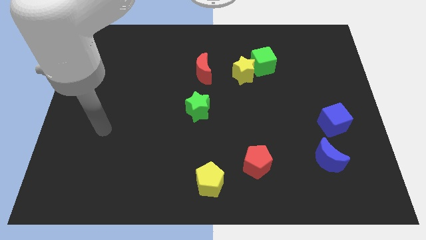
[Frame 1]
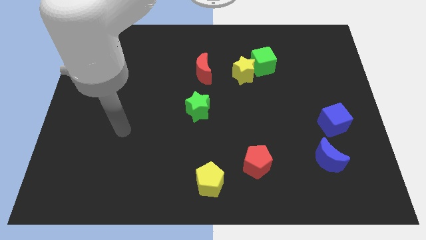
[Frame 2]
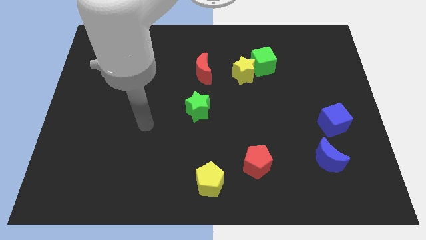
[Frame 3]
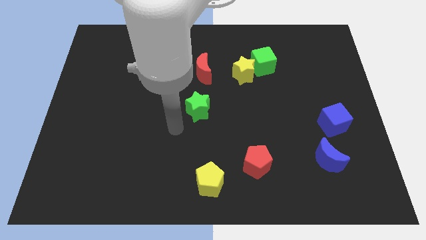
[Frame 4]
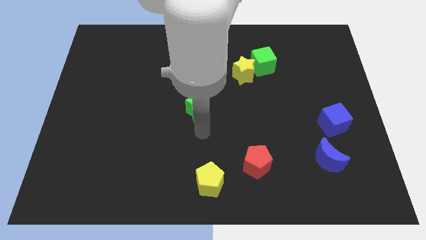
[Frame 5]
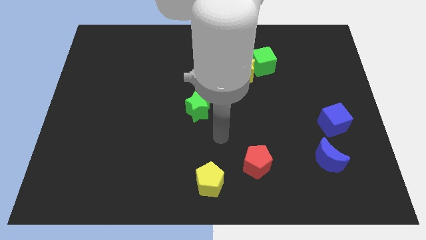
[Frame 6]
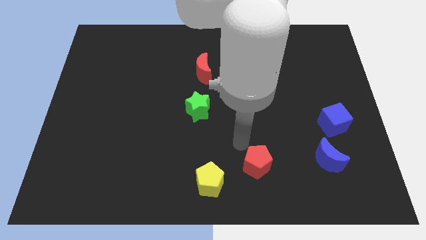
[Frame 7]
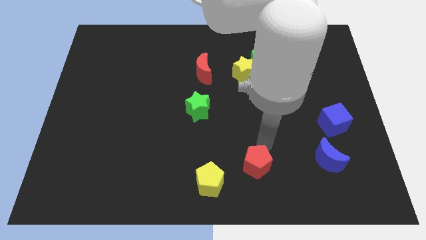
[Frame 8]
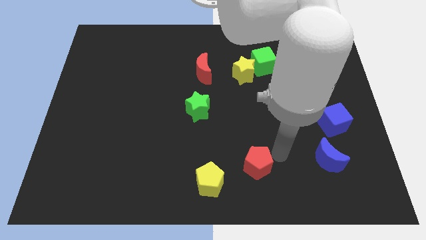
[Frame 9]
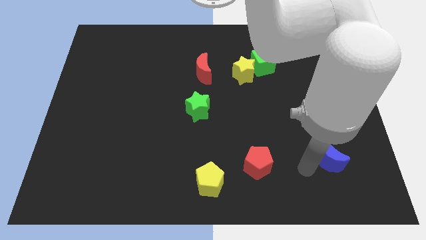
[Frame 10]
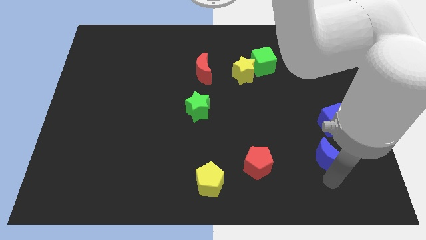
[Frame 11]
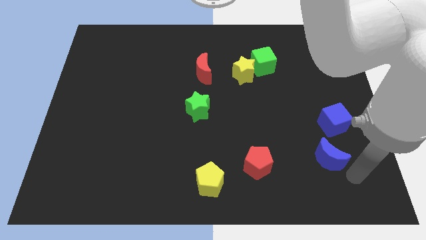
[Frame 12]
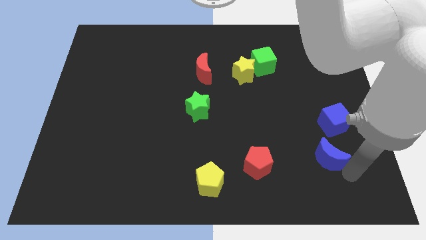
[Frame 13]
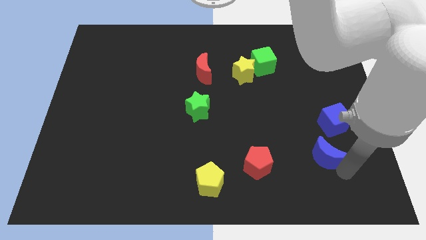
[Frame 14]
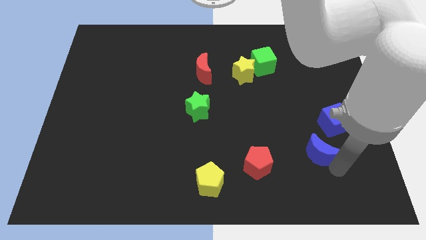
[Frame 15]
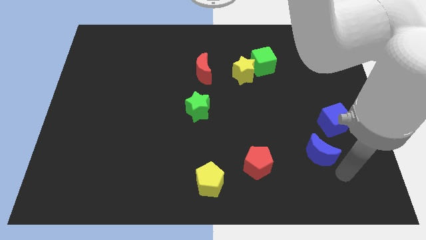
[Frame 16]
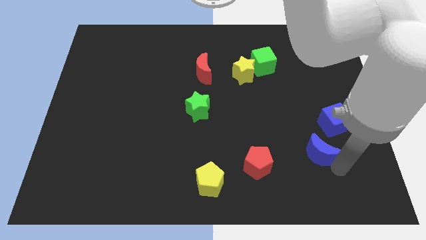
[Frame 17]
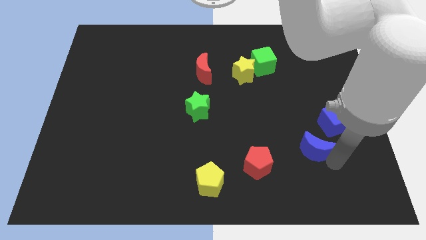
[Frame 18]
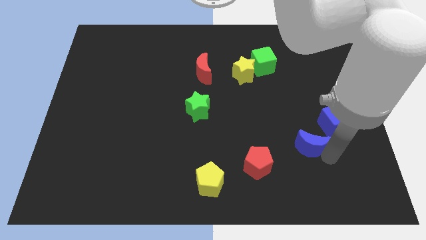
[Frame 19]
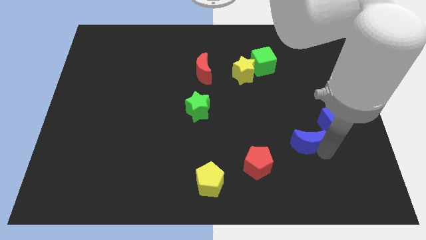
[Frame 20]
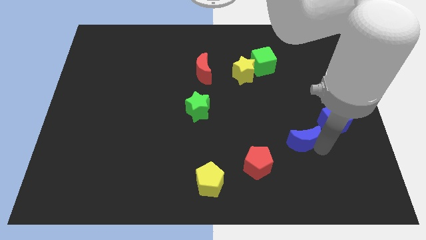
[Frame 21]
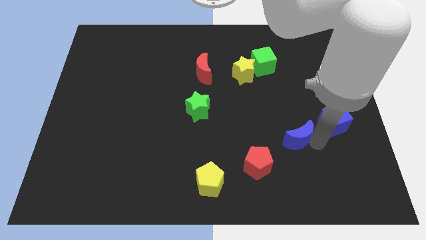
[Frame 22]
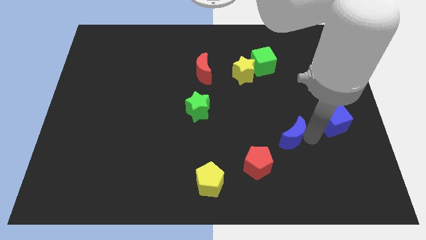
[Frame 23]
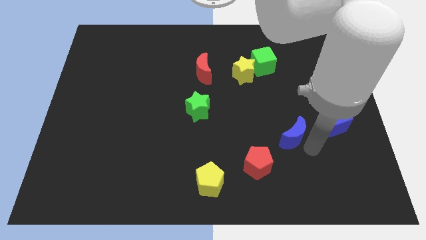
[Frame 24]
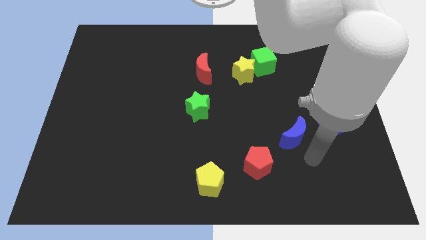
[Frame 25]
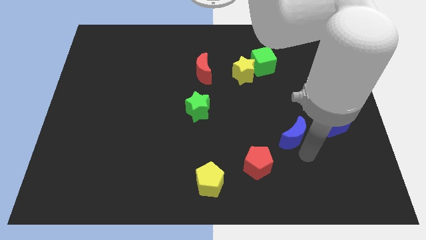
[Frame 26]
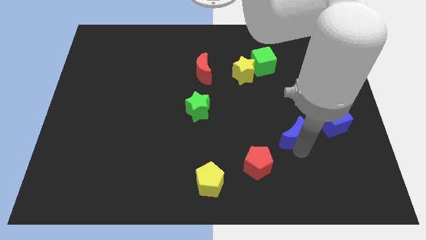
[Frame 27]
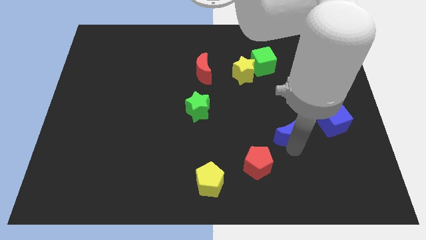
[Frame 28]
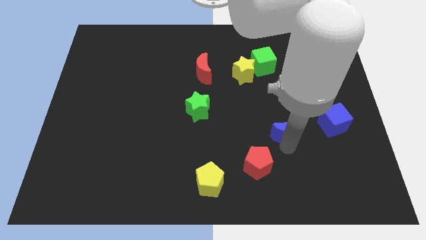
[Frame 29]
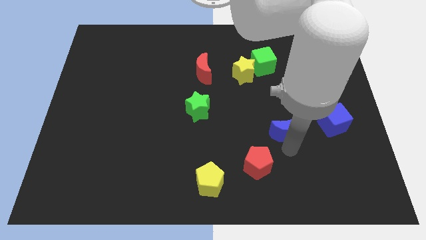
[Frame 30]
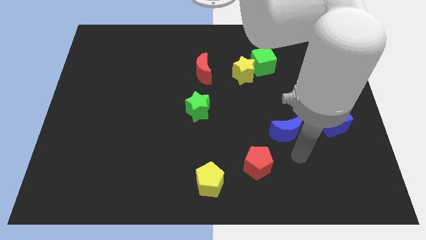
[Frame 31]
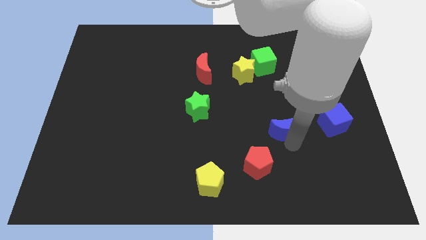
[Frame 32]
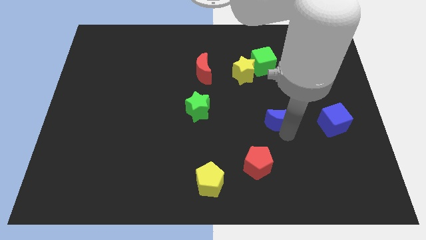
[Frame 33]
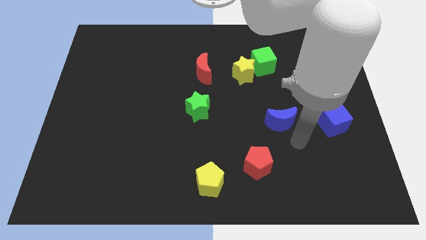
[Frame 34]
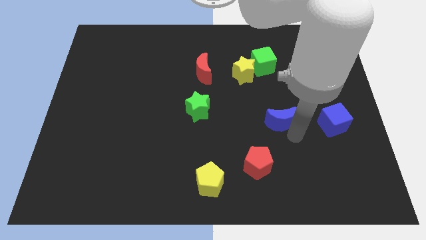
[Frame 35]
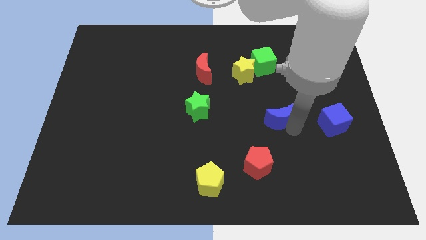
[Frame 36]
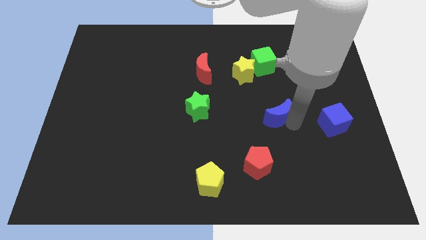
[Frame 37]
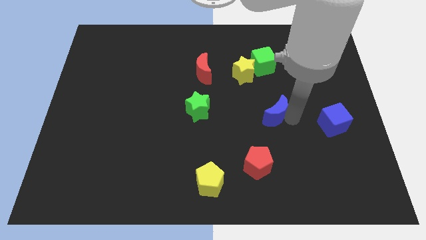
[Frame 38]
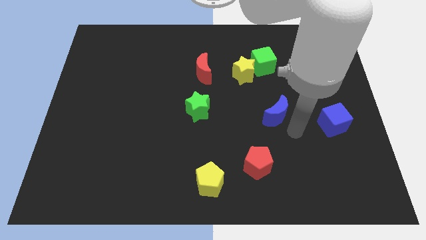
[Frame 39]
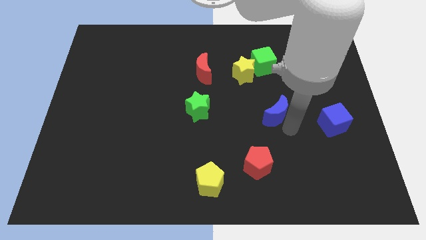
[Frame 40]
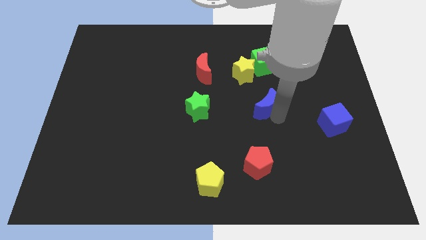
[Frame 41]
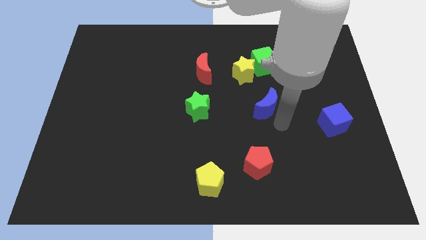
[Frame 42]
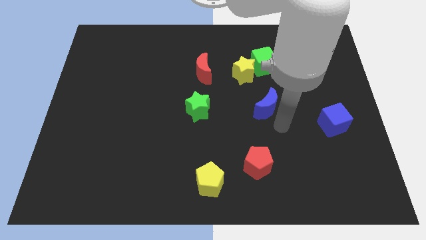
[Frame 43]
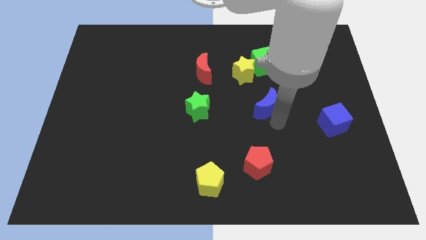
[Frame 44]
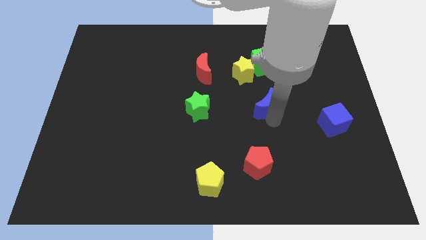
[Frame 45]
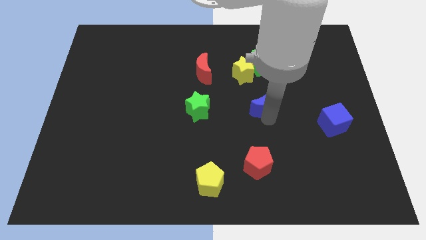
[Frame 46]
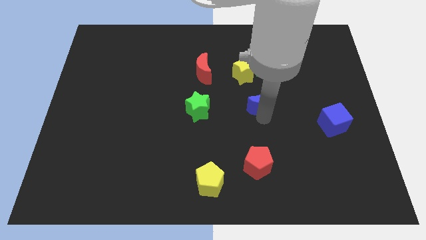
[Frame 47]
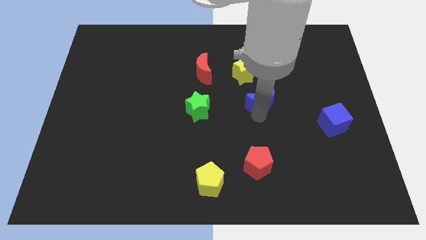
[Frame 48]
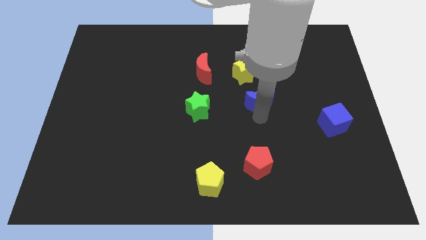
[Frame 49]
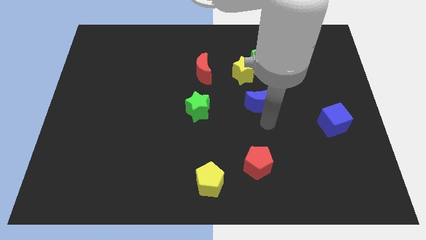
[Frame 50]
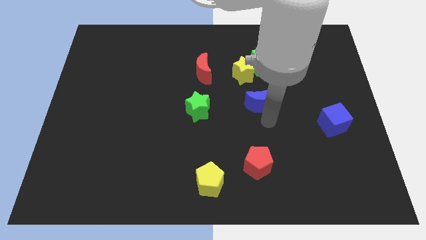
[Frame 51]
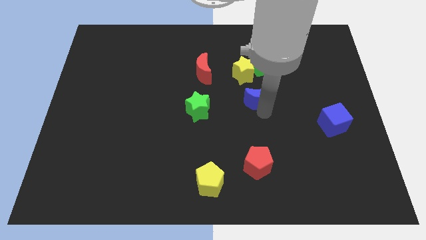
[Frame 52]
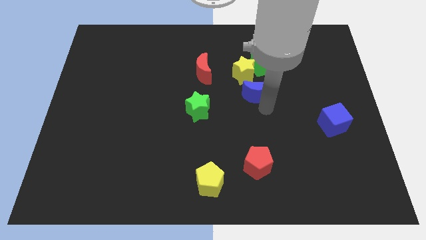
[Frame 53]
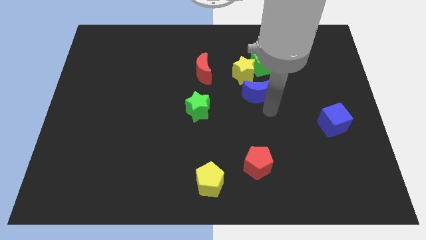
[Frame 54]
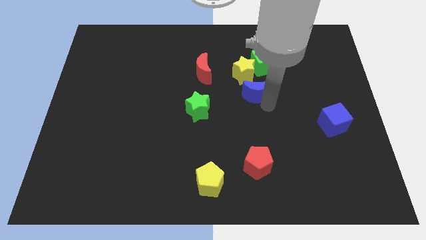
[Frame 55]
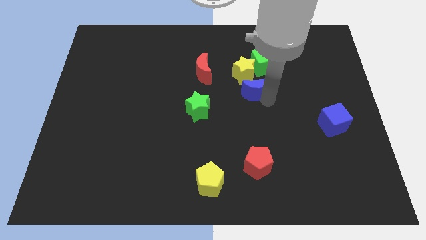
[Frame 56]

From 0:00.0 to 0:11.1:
push the blue moon diagonally down and to the left of the green cube

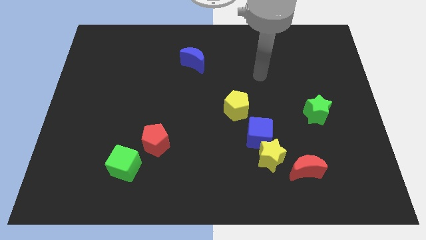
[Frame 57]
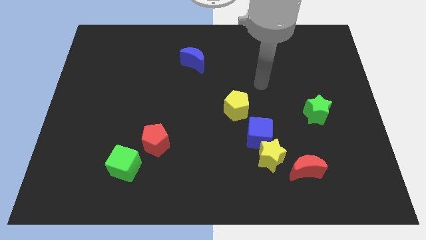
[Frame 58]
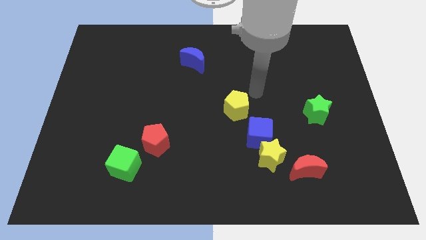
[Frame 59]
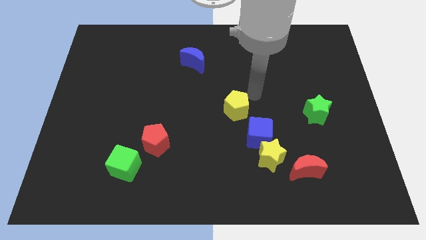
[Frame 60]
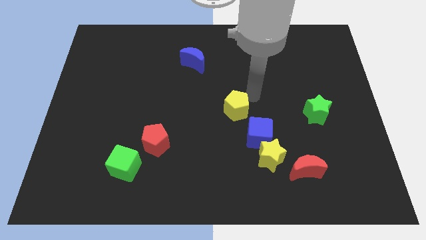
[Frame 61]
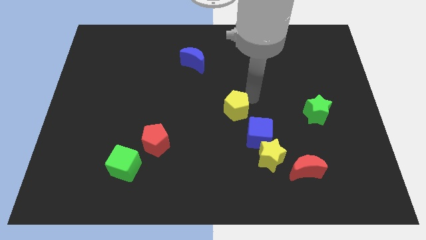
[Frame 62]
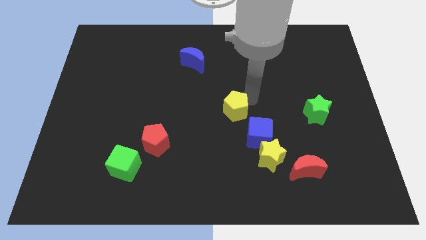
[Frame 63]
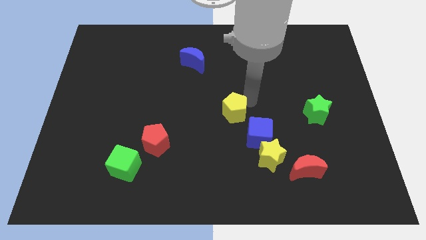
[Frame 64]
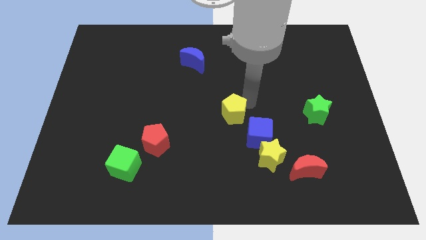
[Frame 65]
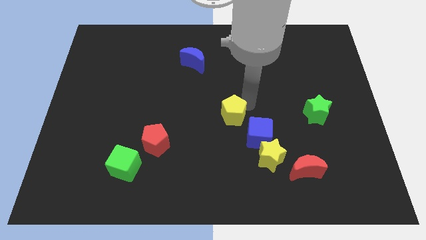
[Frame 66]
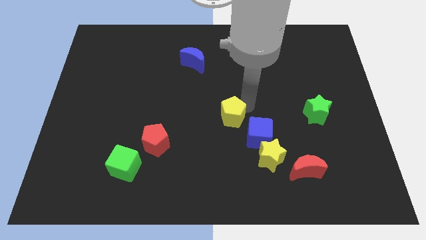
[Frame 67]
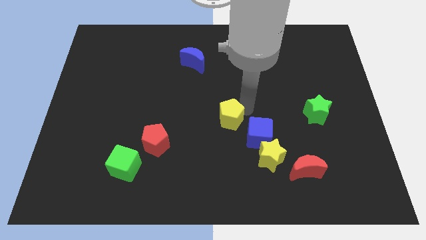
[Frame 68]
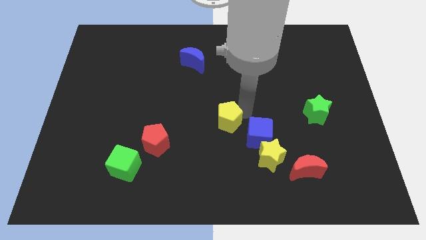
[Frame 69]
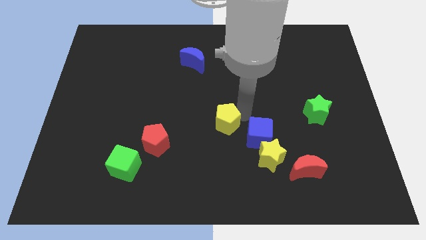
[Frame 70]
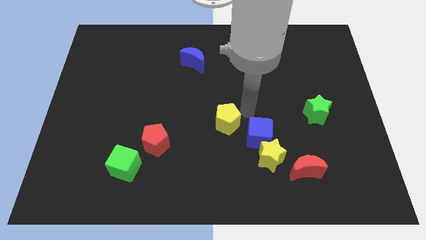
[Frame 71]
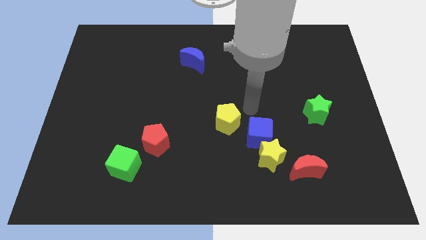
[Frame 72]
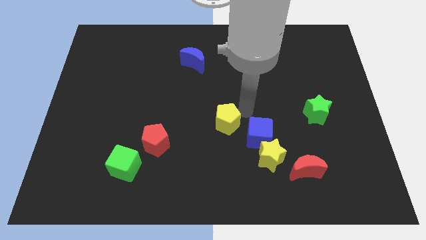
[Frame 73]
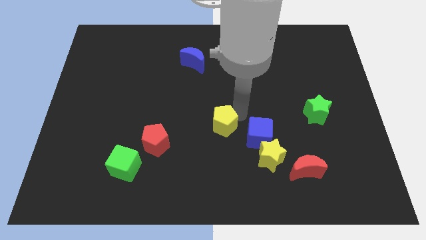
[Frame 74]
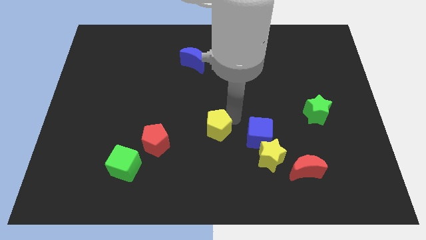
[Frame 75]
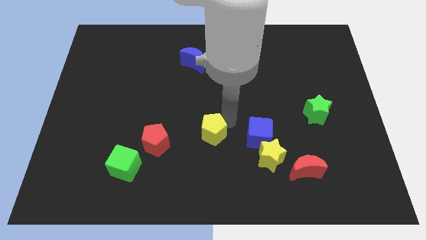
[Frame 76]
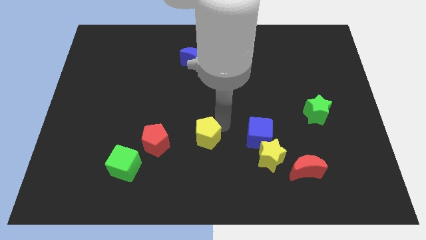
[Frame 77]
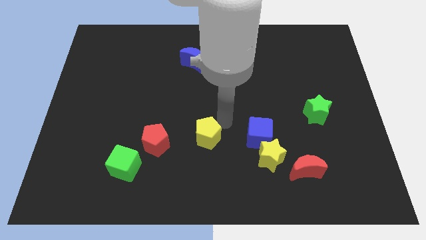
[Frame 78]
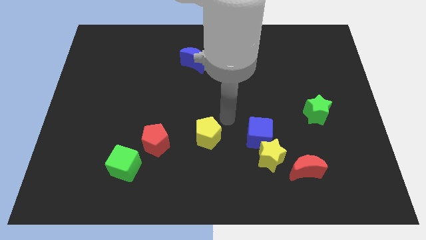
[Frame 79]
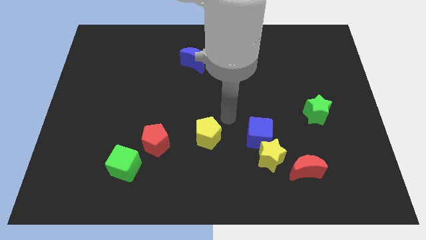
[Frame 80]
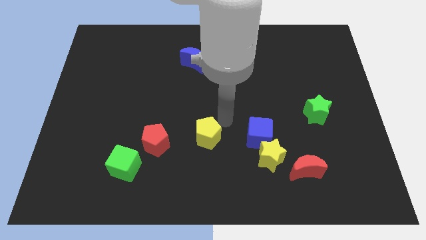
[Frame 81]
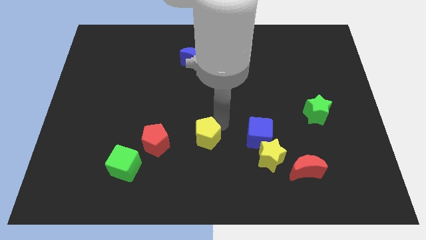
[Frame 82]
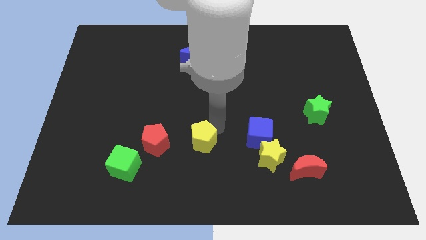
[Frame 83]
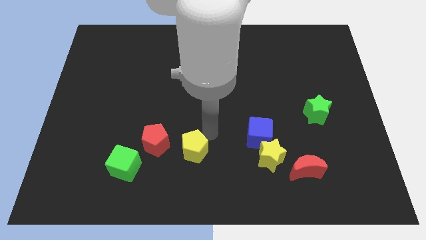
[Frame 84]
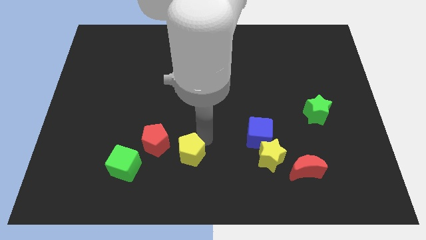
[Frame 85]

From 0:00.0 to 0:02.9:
slide the yellow pentagon just right of the green cube
